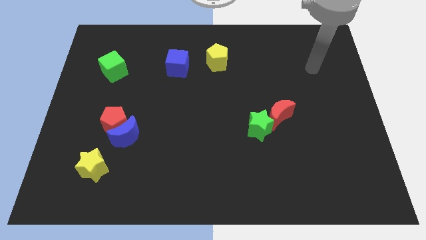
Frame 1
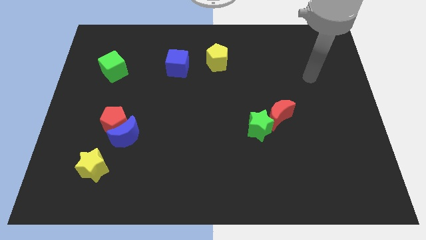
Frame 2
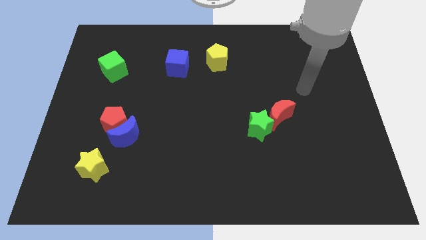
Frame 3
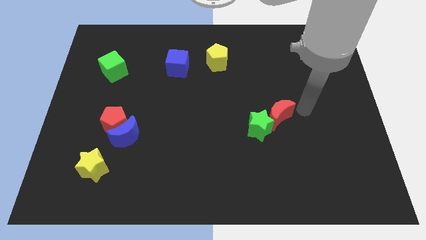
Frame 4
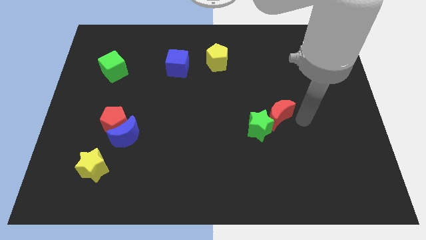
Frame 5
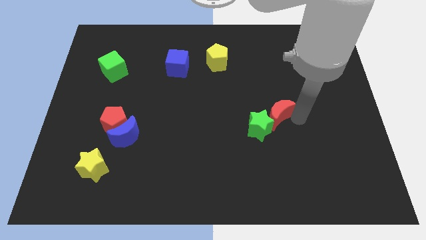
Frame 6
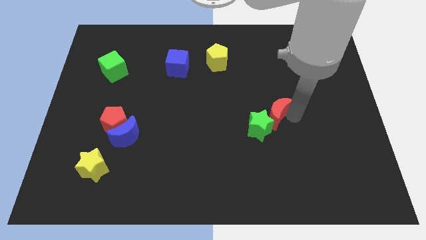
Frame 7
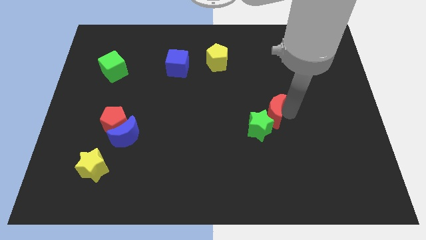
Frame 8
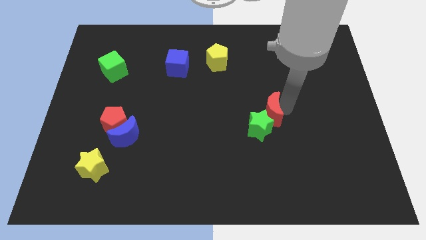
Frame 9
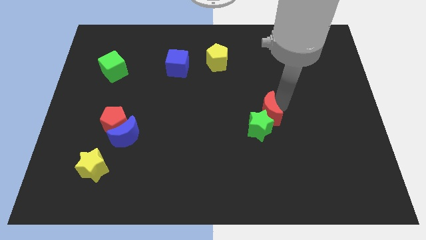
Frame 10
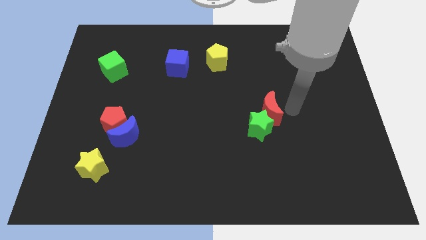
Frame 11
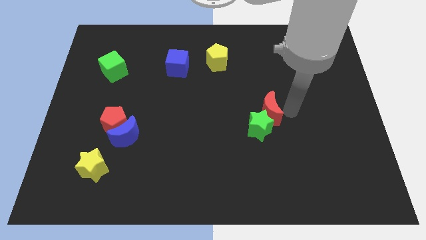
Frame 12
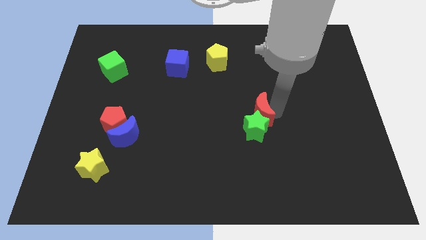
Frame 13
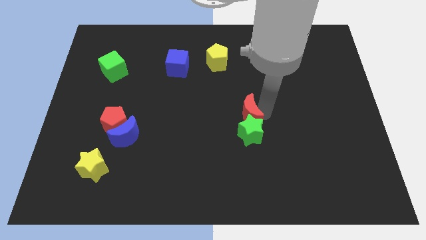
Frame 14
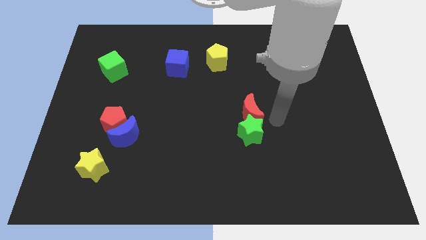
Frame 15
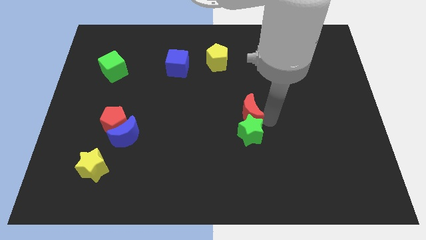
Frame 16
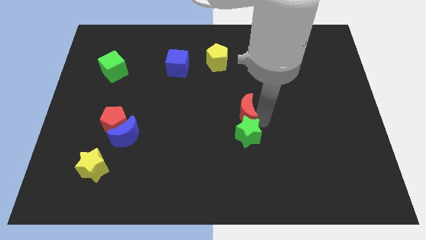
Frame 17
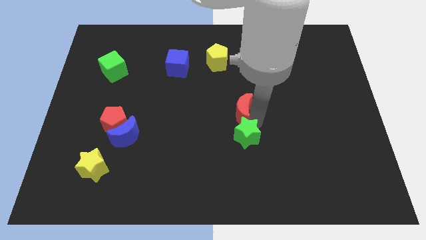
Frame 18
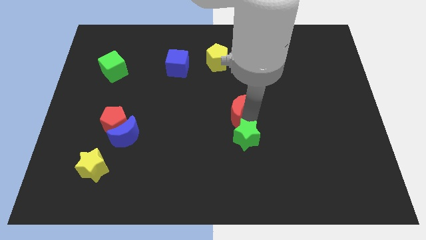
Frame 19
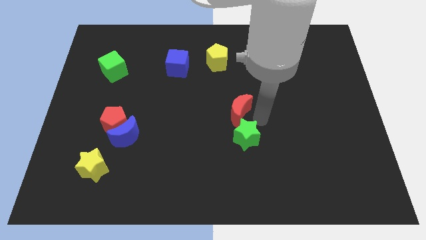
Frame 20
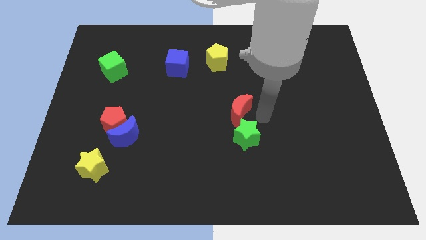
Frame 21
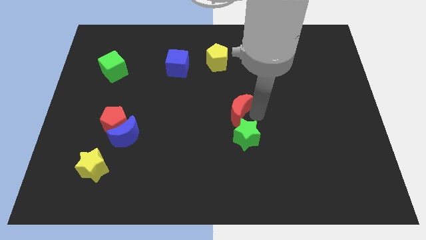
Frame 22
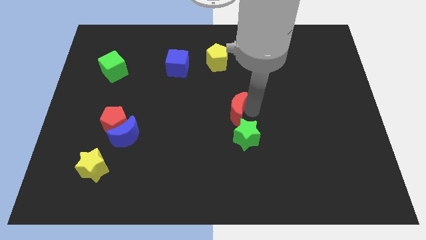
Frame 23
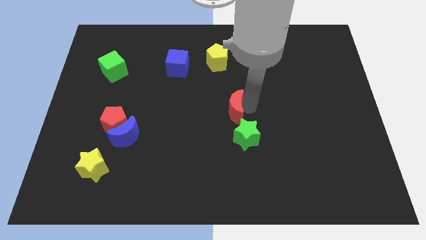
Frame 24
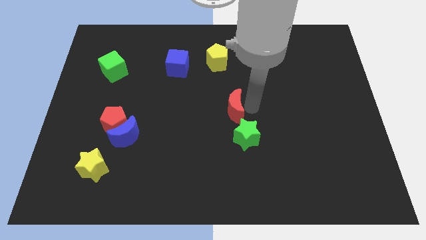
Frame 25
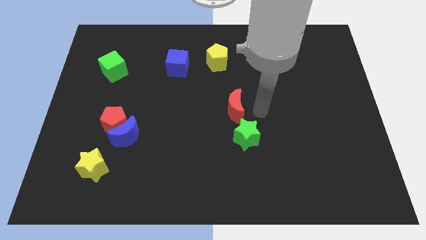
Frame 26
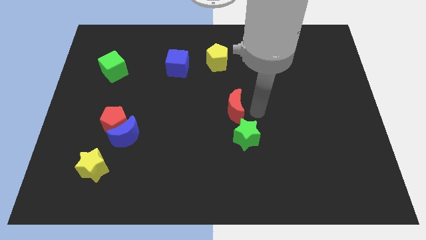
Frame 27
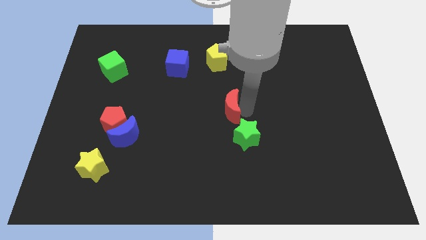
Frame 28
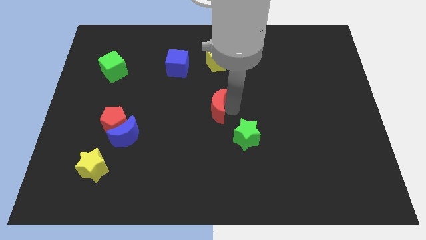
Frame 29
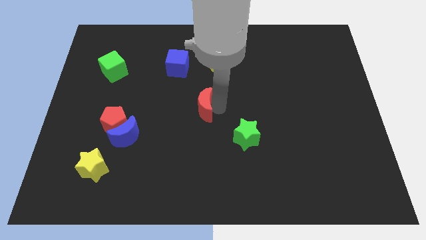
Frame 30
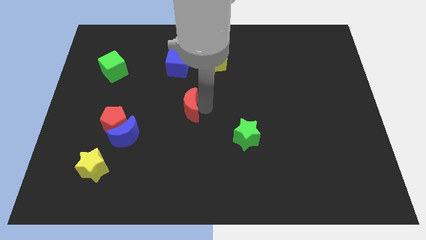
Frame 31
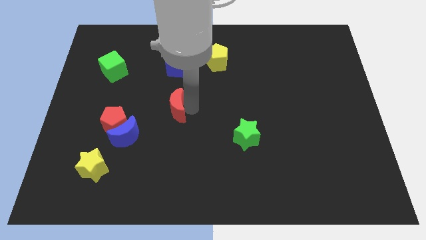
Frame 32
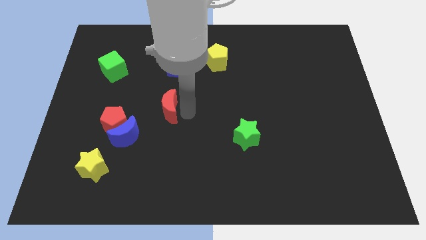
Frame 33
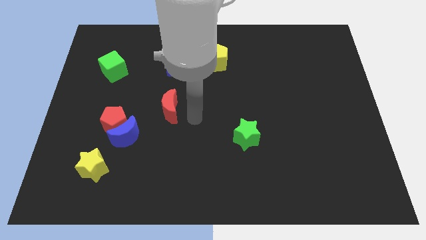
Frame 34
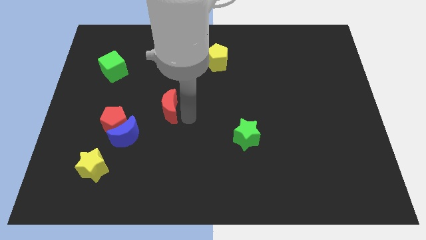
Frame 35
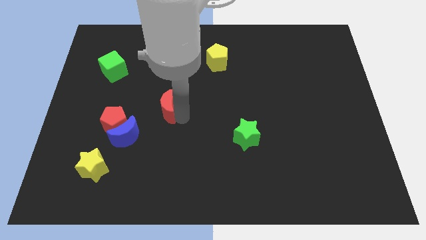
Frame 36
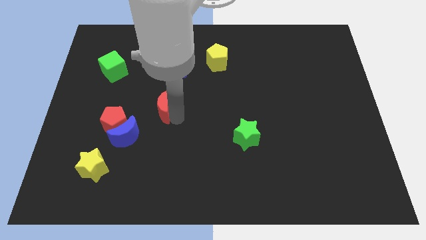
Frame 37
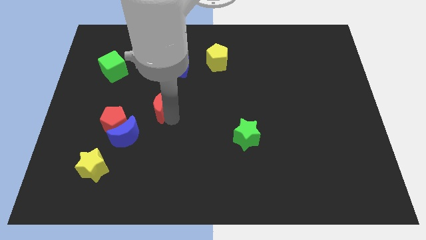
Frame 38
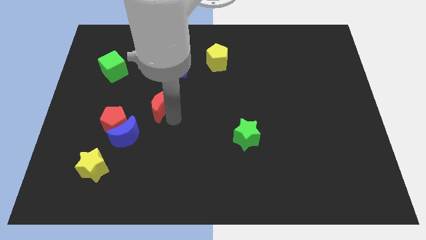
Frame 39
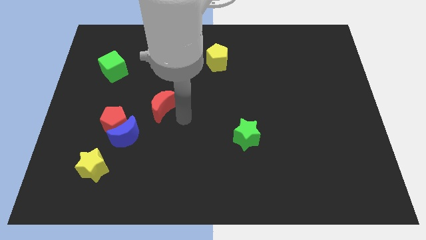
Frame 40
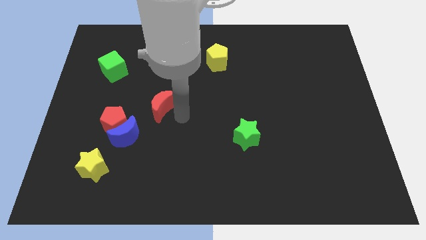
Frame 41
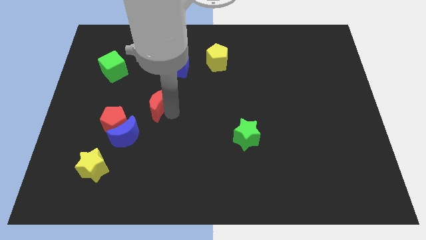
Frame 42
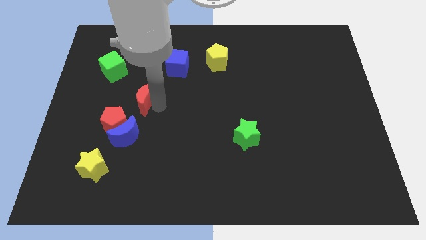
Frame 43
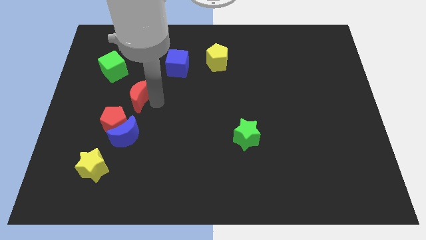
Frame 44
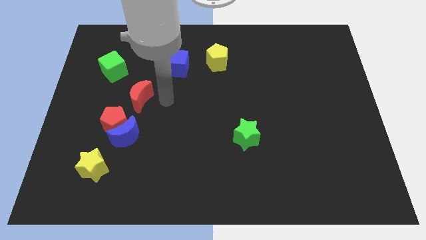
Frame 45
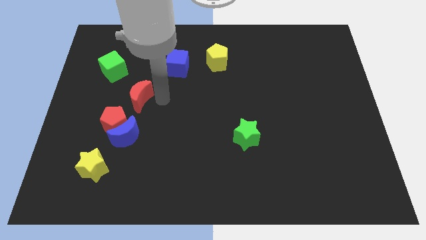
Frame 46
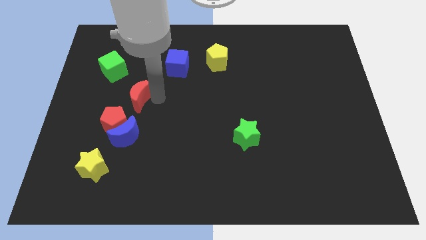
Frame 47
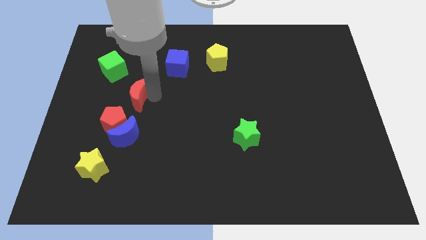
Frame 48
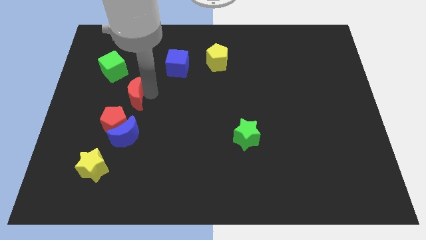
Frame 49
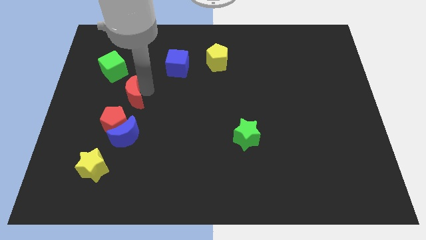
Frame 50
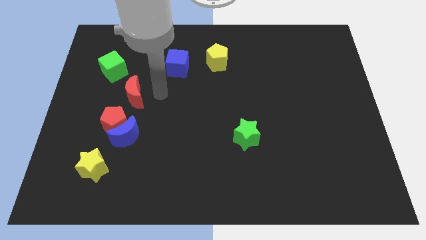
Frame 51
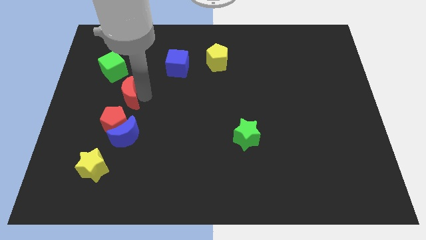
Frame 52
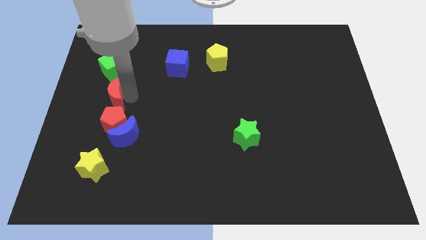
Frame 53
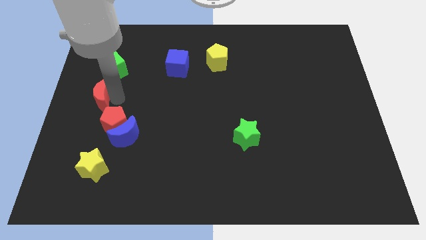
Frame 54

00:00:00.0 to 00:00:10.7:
put the red moon to the left side
